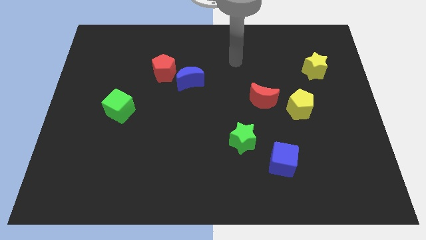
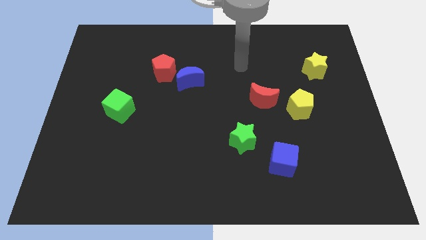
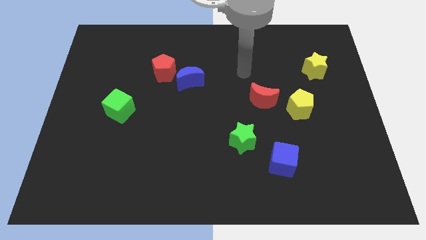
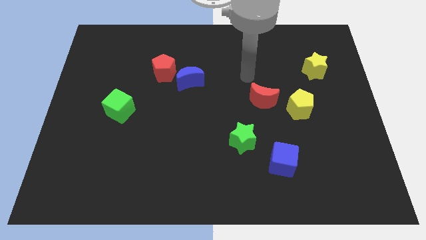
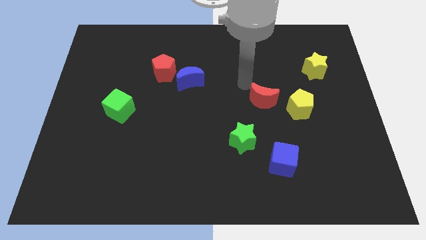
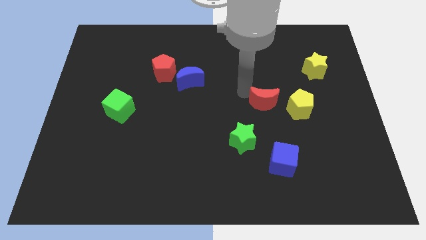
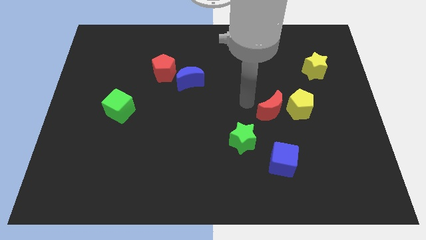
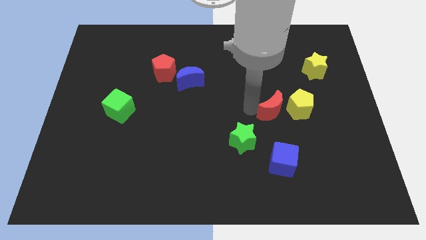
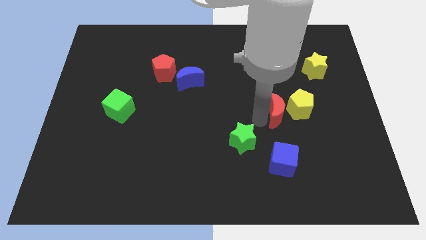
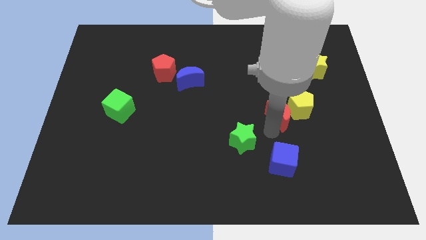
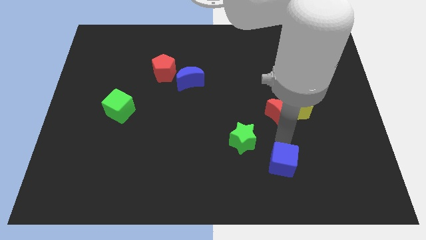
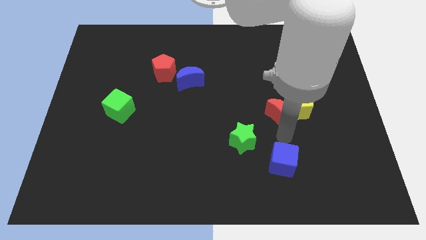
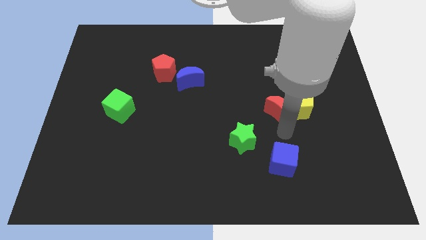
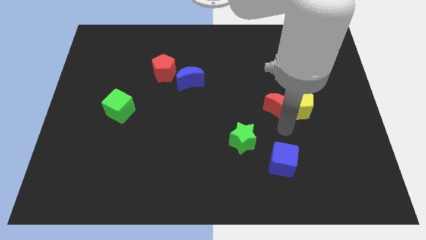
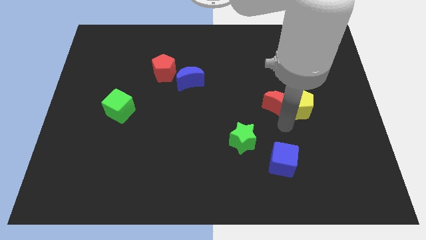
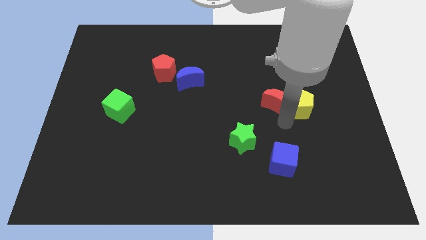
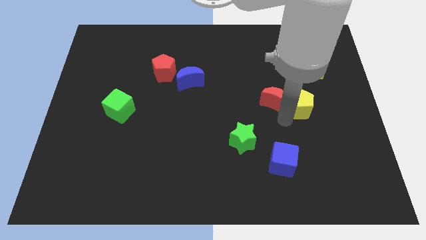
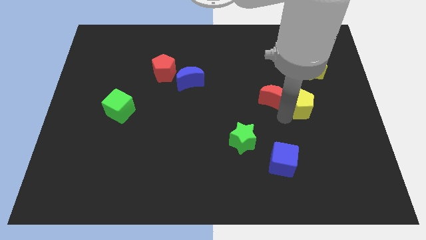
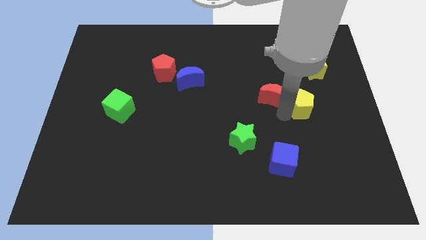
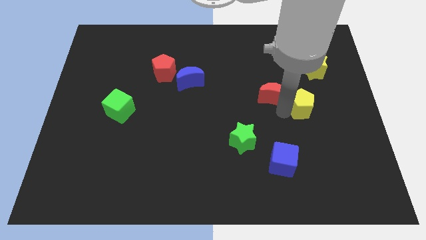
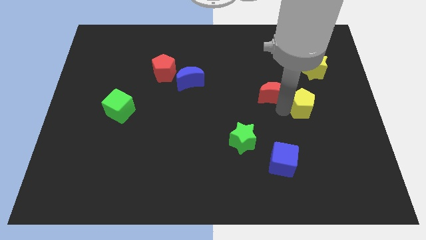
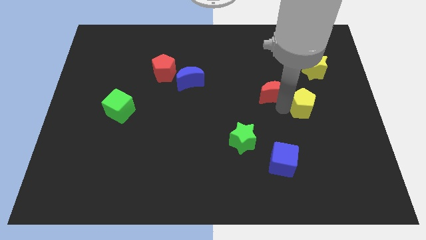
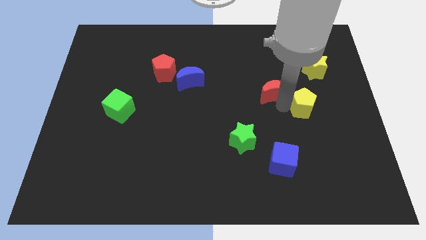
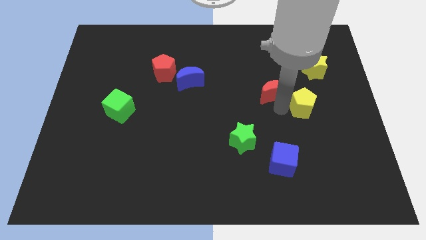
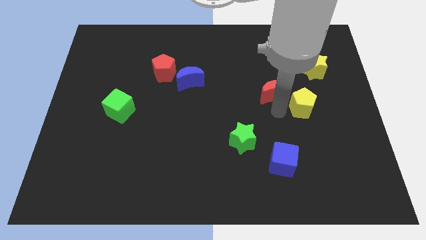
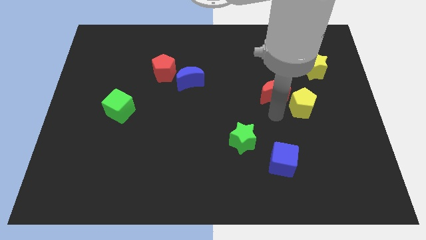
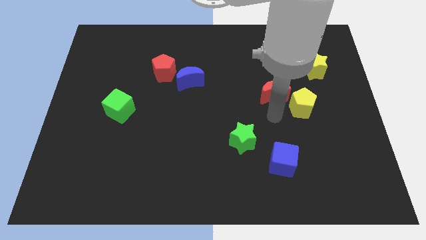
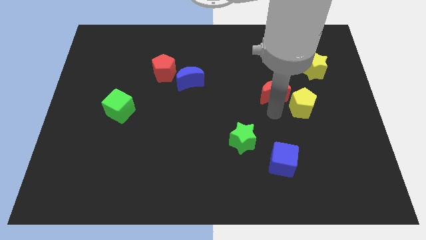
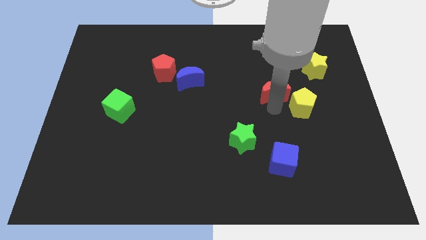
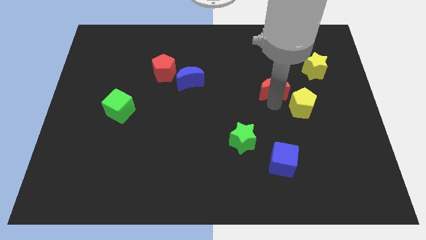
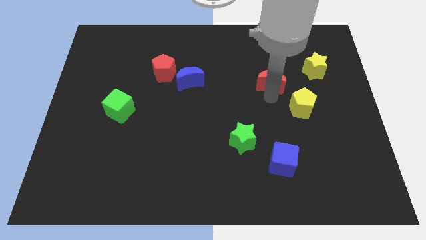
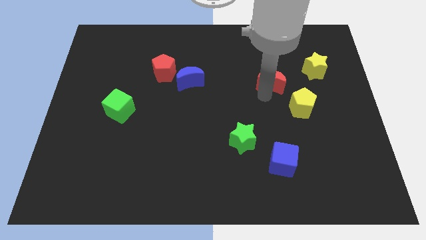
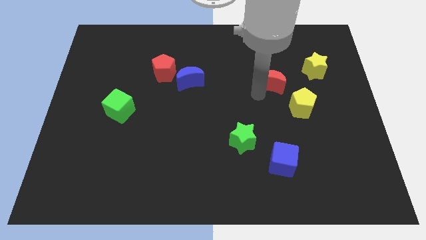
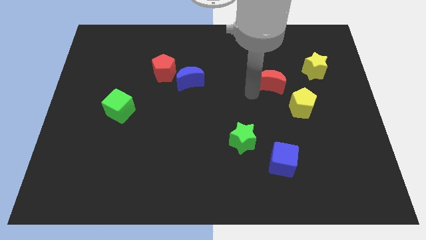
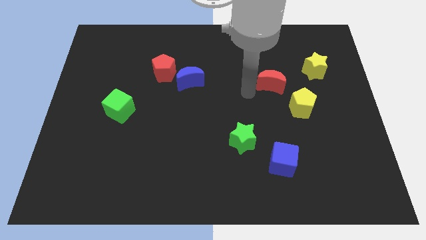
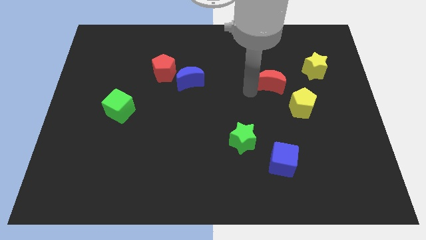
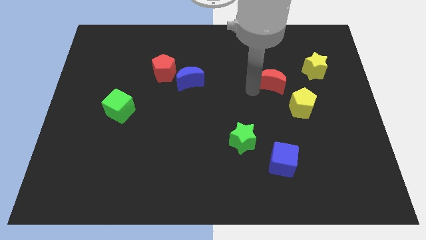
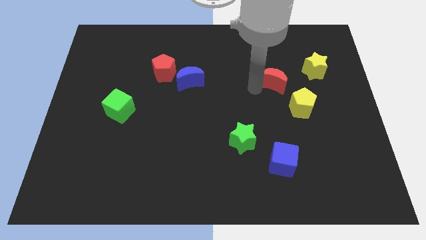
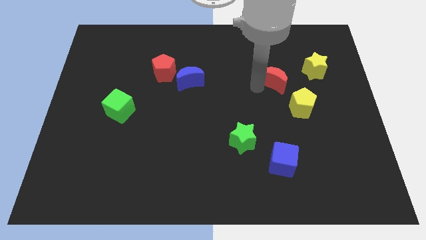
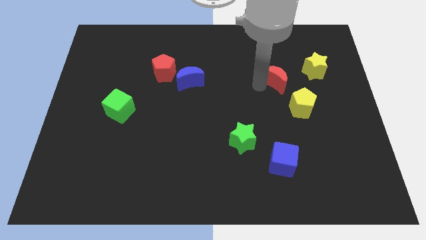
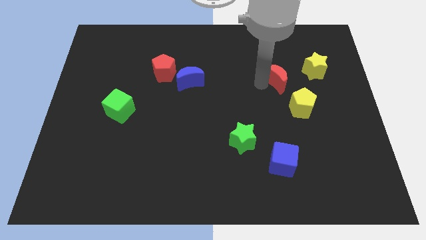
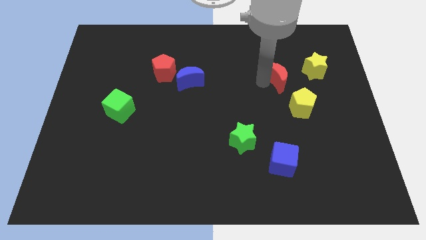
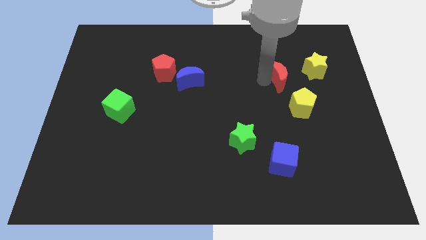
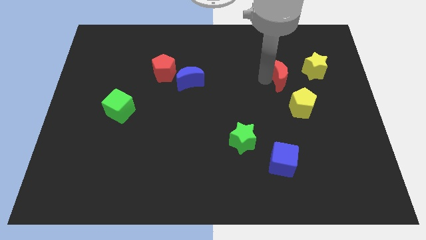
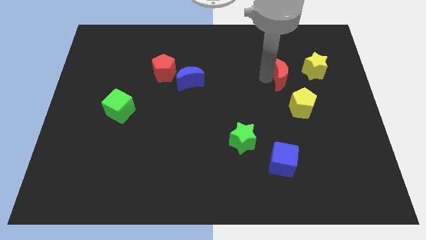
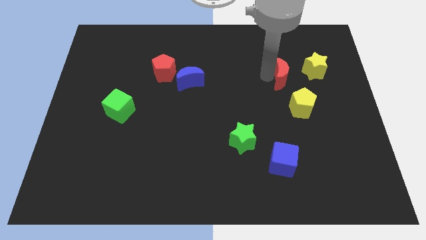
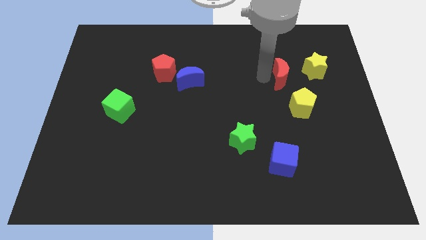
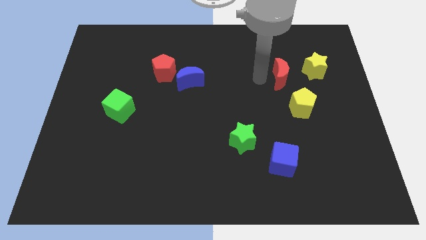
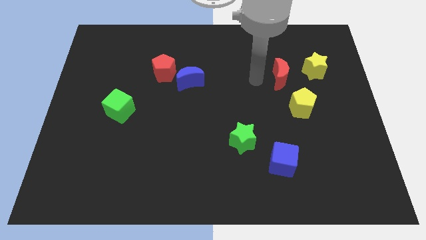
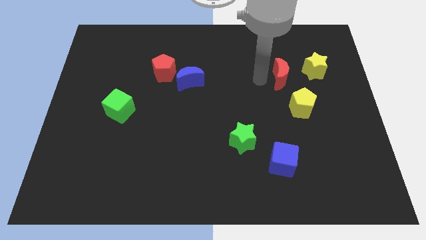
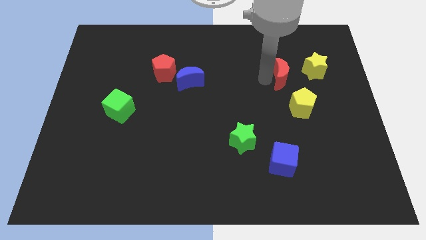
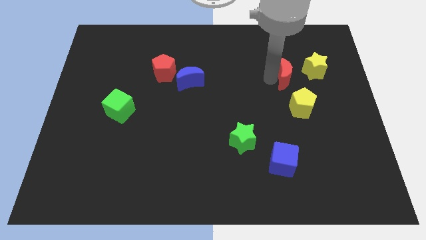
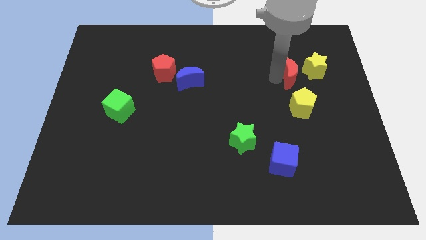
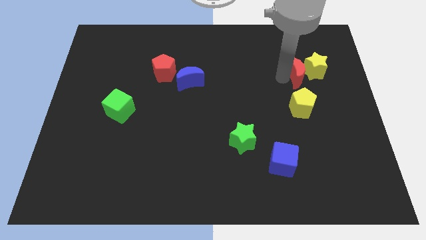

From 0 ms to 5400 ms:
put the red moon towards the yellow star

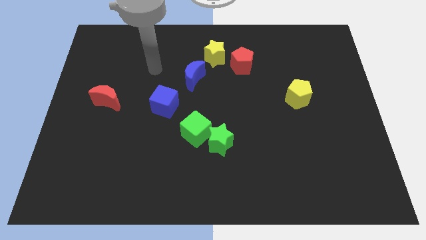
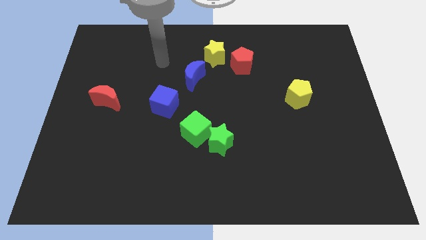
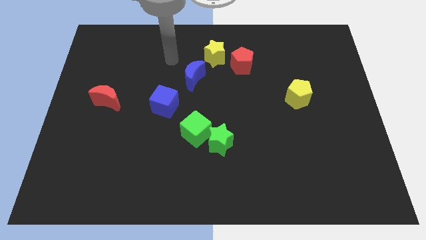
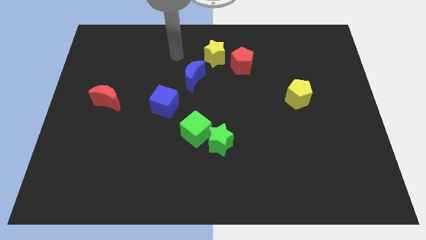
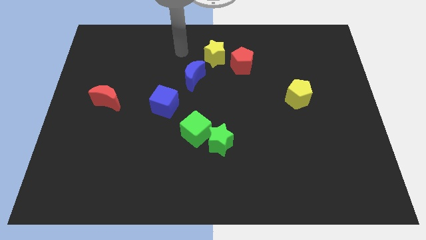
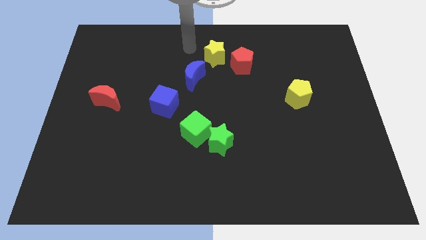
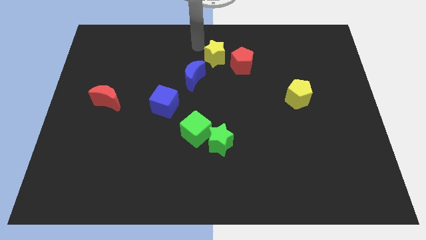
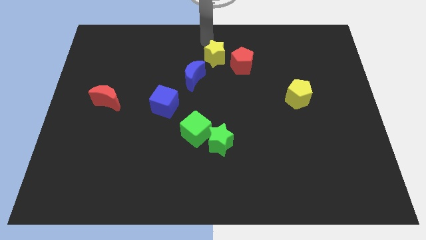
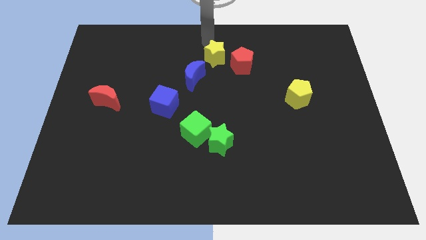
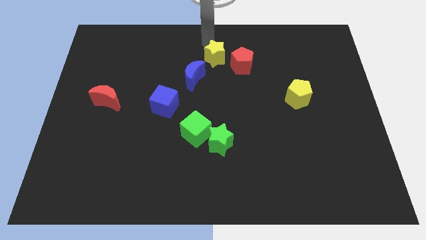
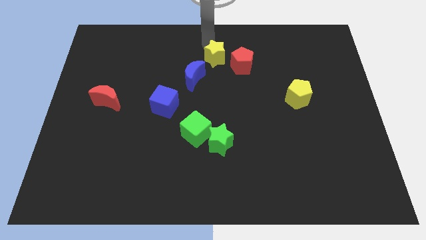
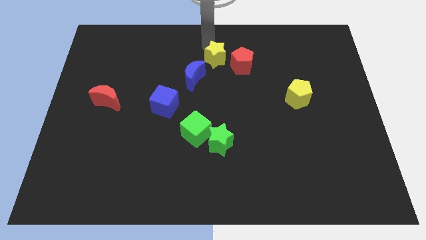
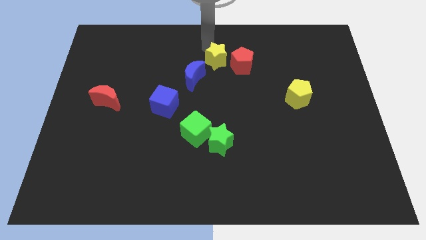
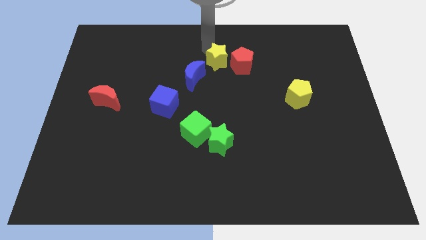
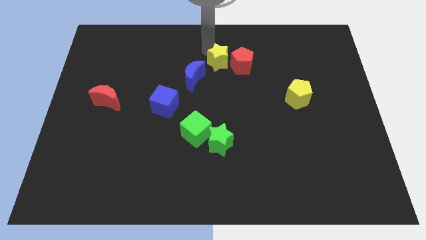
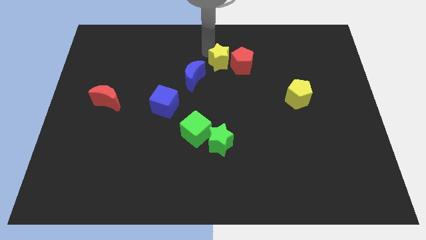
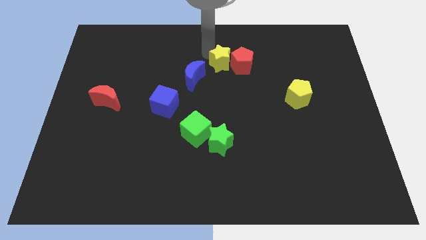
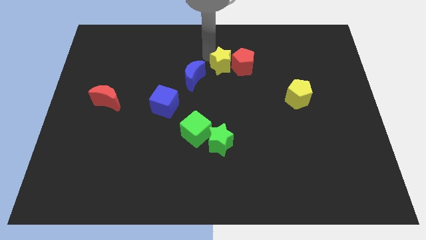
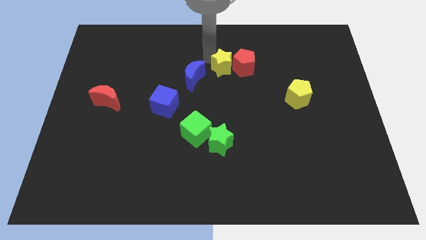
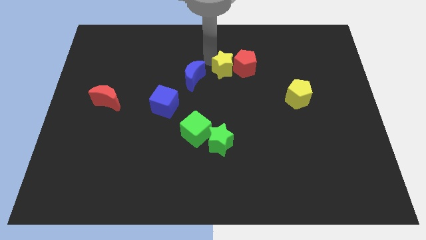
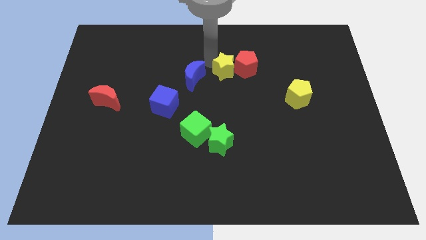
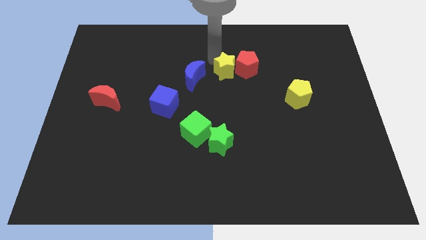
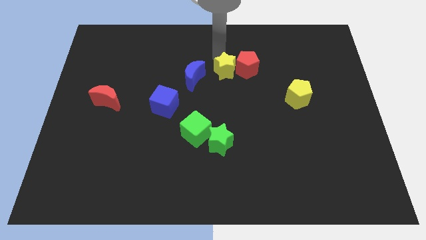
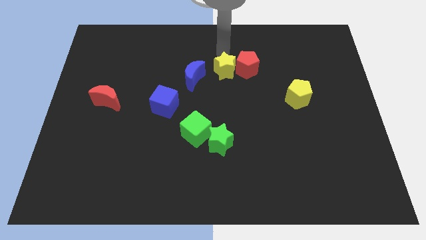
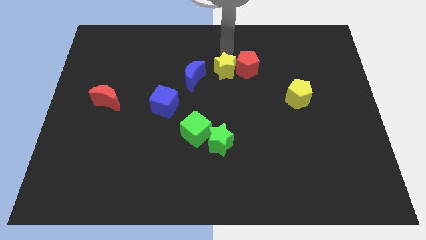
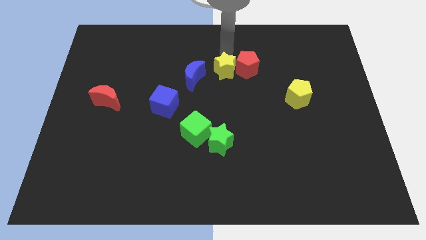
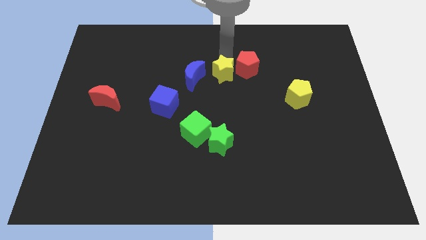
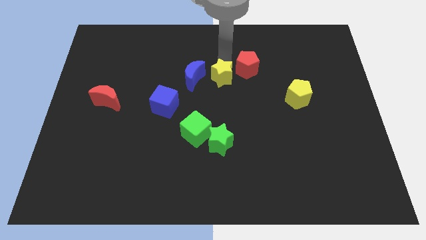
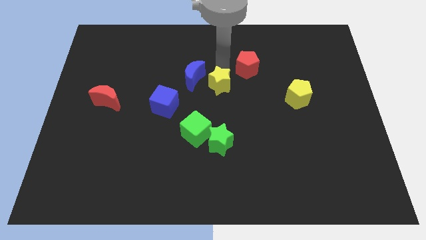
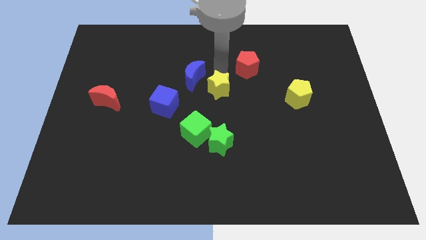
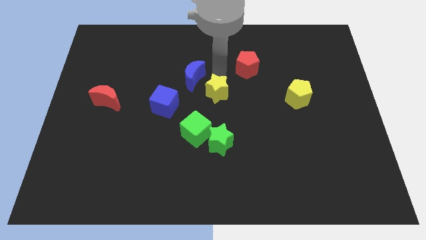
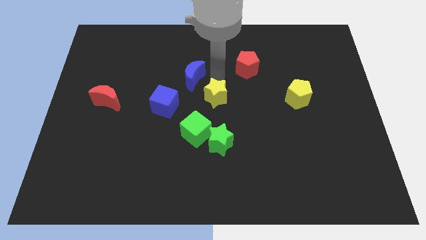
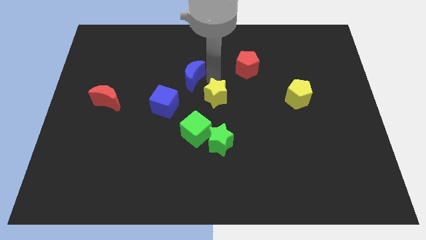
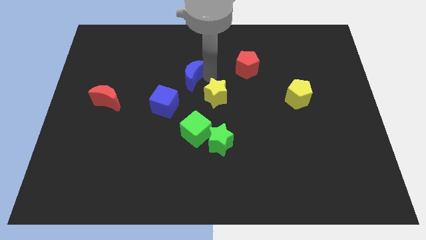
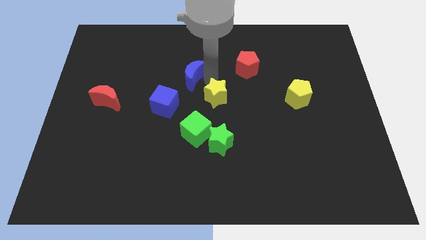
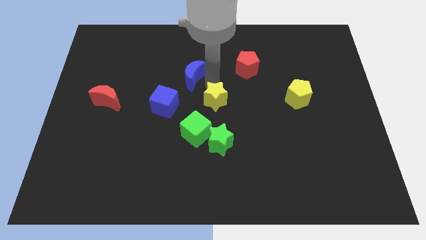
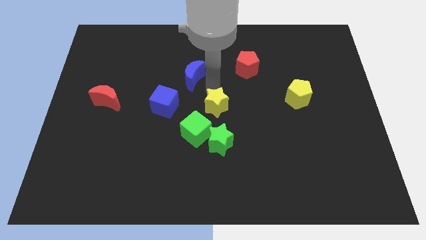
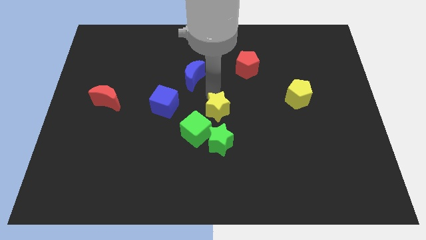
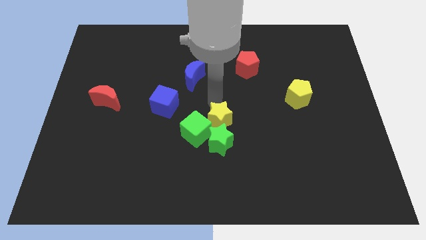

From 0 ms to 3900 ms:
push the yellow star next to the green star
